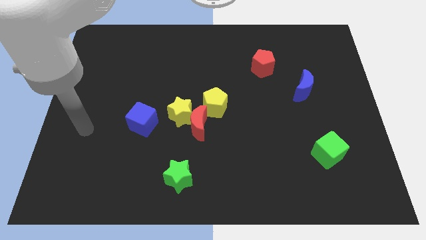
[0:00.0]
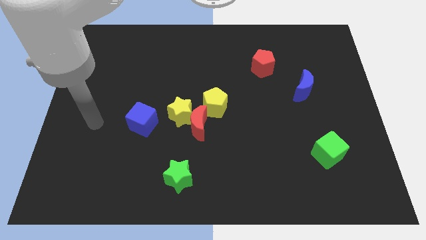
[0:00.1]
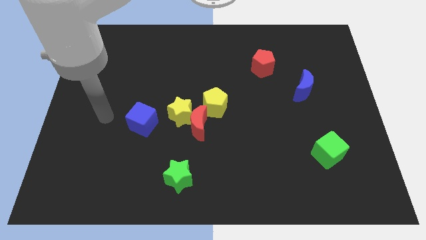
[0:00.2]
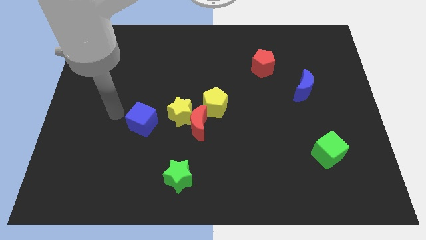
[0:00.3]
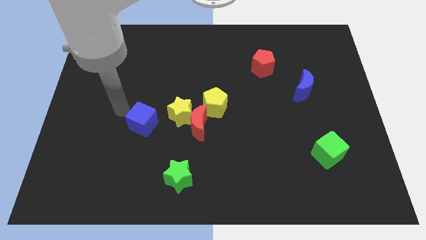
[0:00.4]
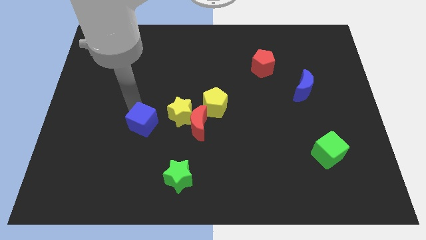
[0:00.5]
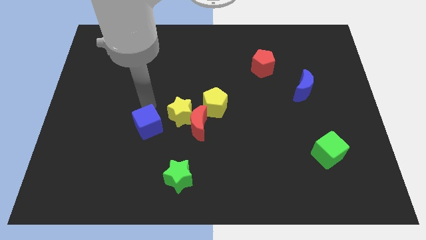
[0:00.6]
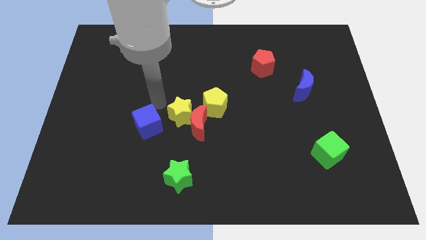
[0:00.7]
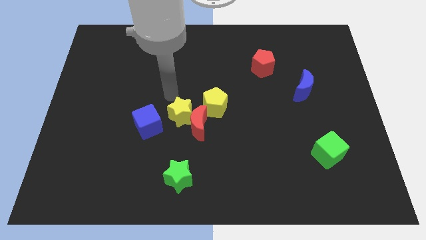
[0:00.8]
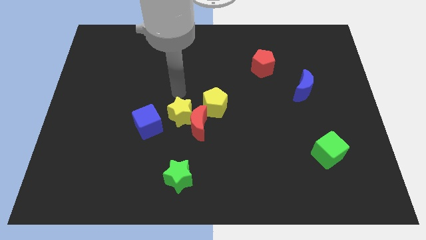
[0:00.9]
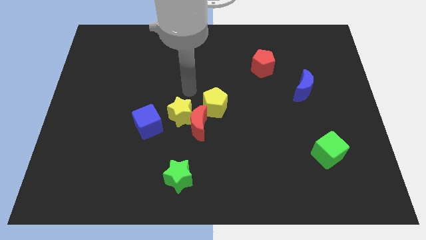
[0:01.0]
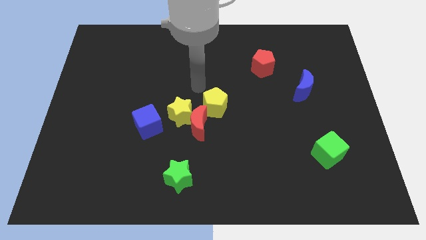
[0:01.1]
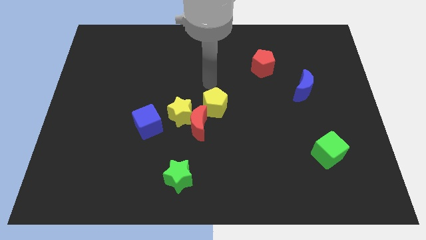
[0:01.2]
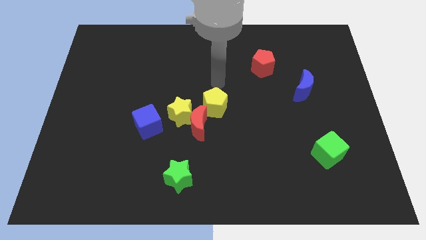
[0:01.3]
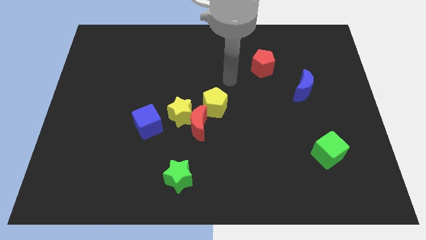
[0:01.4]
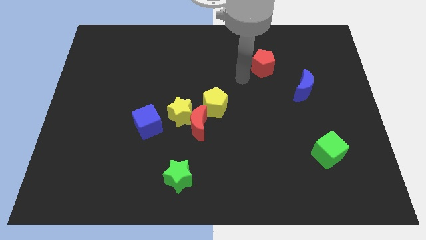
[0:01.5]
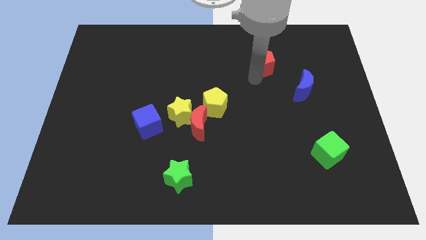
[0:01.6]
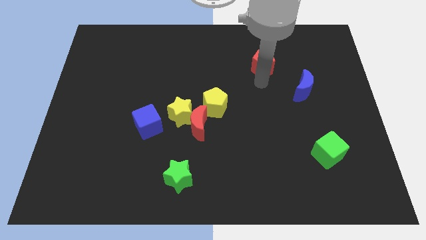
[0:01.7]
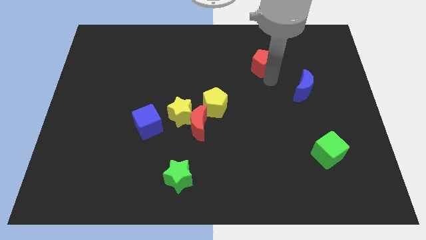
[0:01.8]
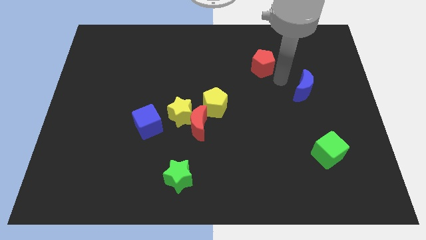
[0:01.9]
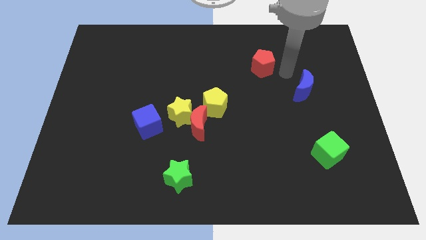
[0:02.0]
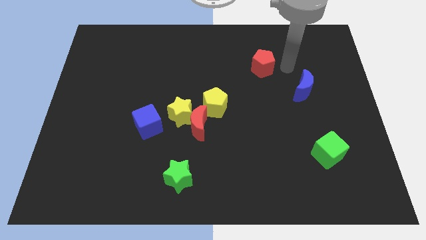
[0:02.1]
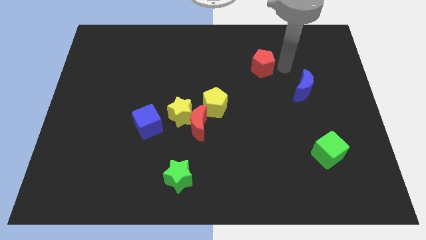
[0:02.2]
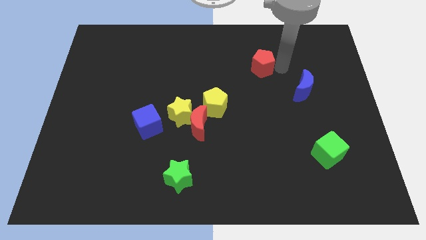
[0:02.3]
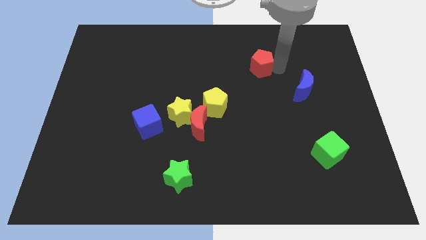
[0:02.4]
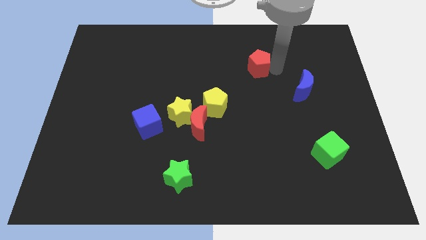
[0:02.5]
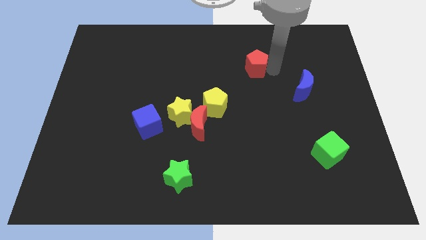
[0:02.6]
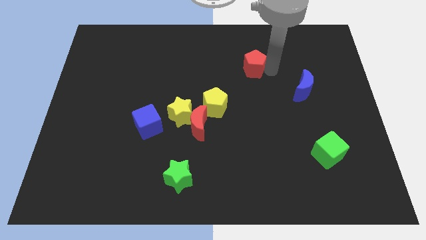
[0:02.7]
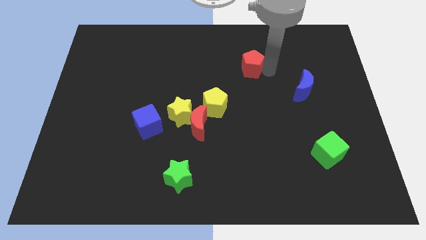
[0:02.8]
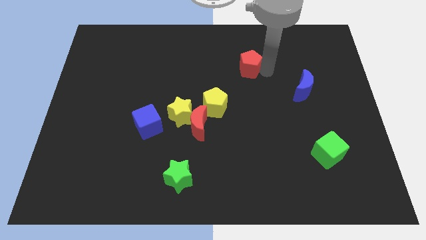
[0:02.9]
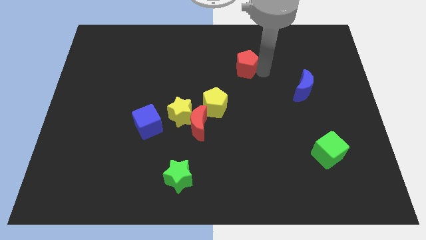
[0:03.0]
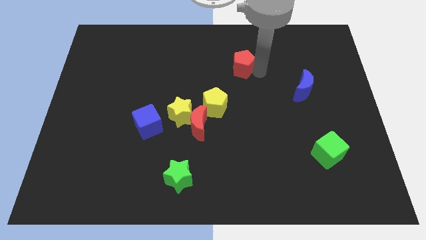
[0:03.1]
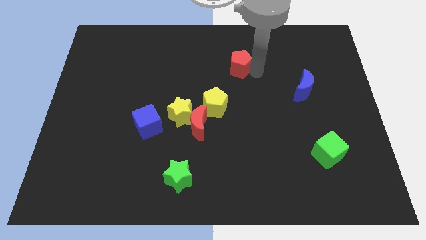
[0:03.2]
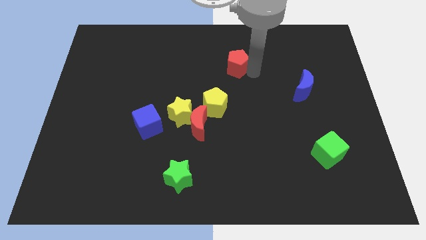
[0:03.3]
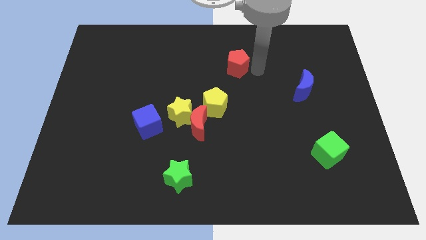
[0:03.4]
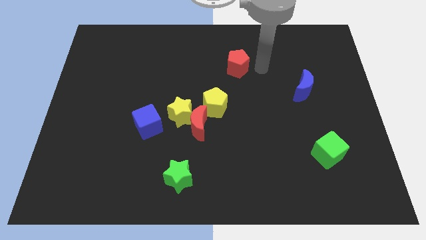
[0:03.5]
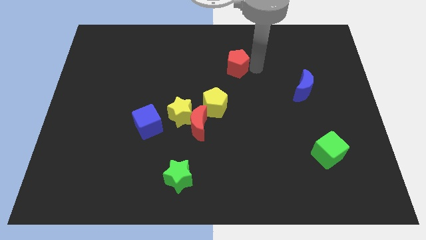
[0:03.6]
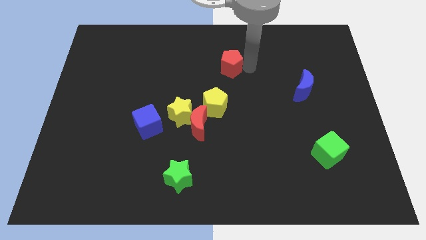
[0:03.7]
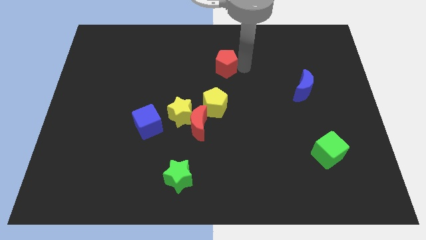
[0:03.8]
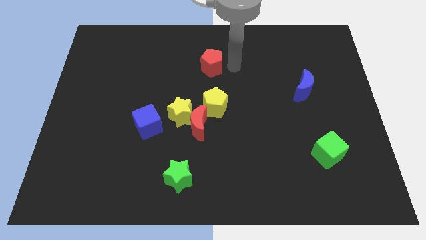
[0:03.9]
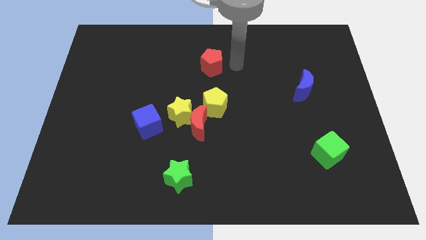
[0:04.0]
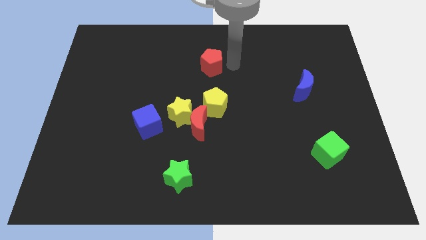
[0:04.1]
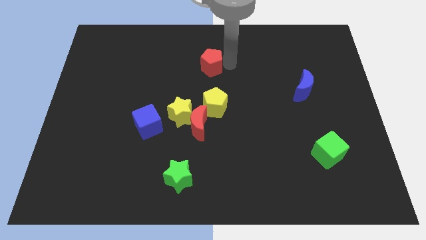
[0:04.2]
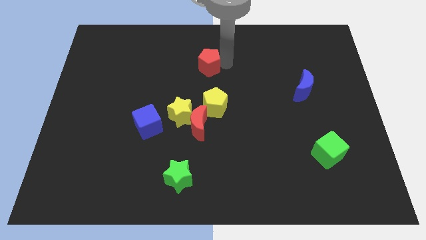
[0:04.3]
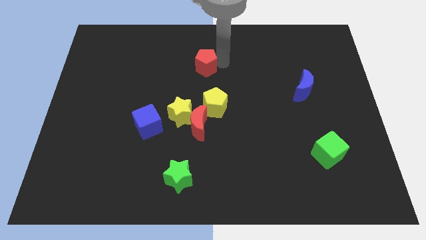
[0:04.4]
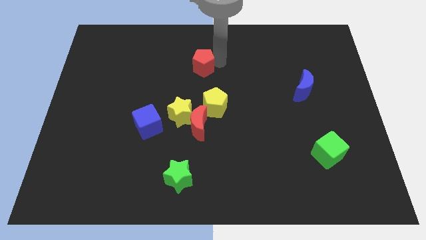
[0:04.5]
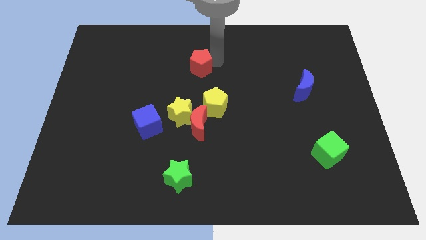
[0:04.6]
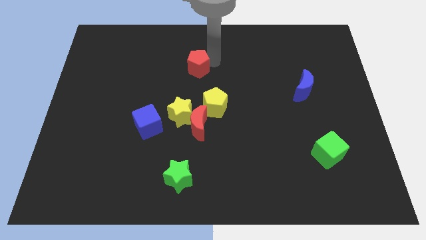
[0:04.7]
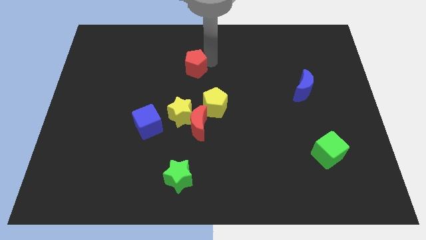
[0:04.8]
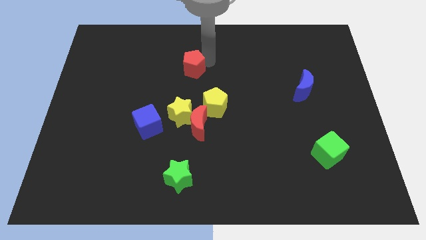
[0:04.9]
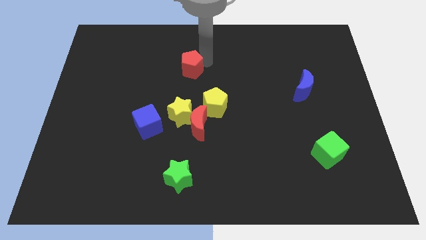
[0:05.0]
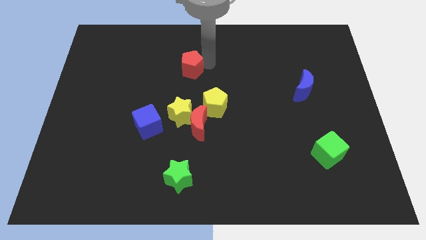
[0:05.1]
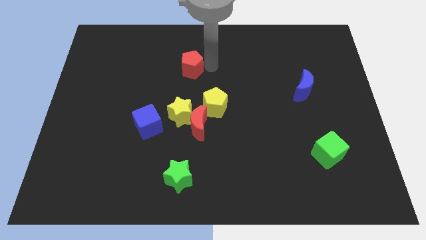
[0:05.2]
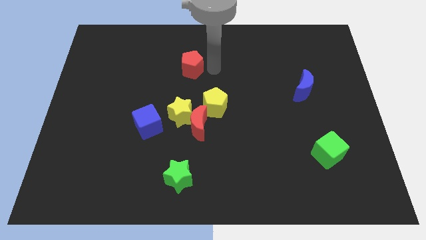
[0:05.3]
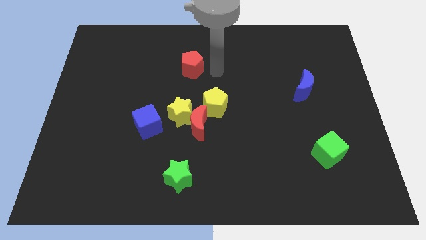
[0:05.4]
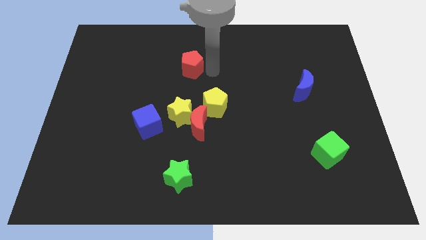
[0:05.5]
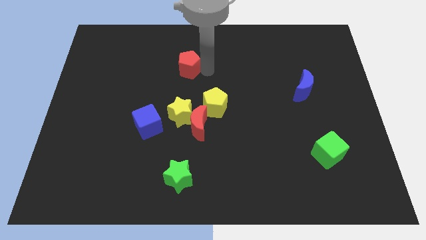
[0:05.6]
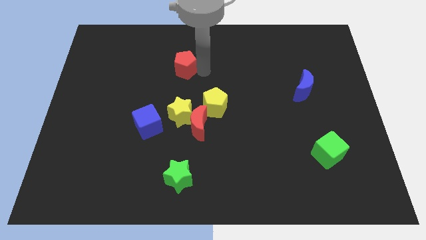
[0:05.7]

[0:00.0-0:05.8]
move the red pentagon to the left

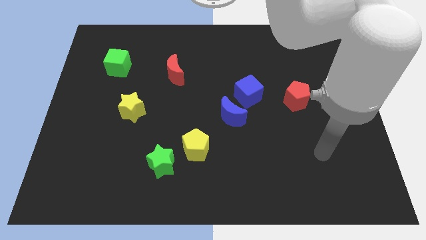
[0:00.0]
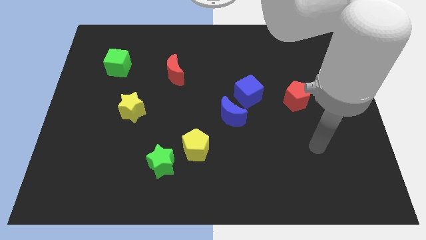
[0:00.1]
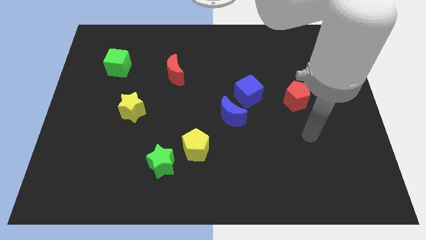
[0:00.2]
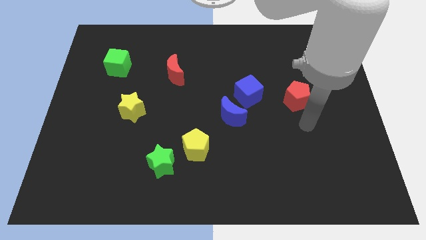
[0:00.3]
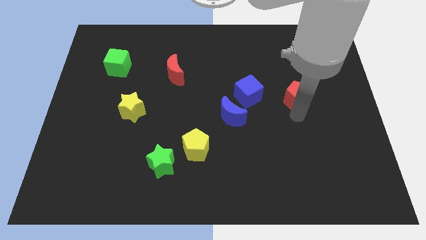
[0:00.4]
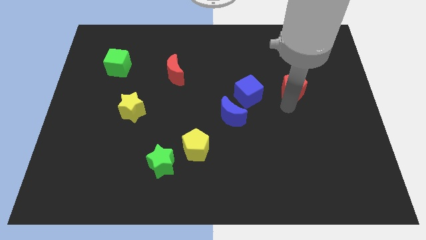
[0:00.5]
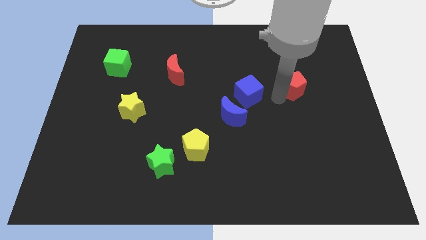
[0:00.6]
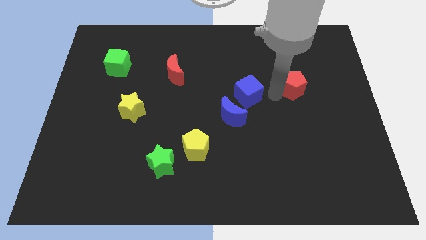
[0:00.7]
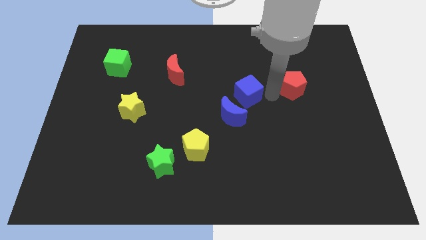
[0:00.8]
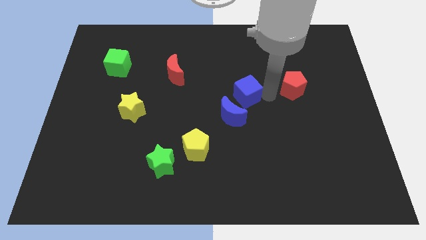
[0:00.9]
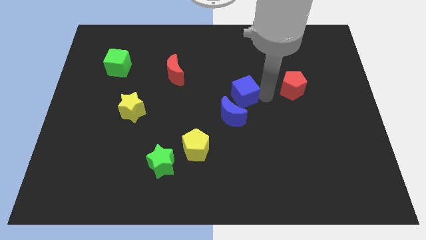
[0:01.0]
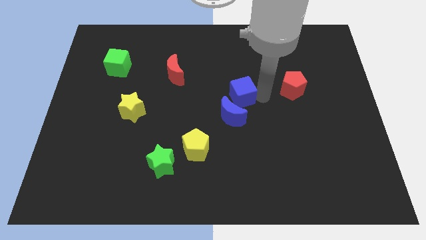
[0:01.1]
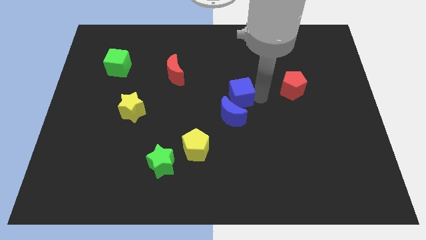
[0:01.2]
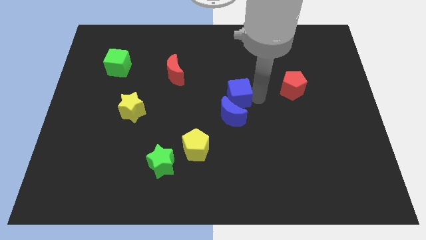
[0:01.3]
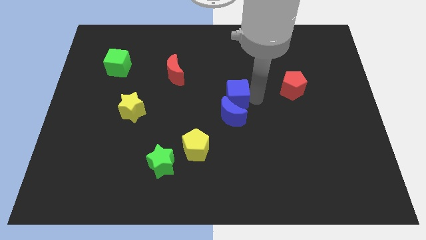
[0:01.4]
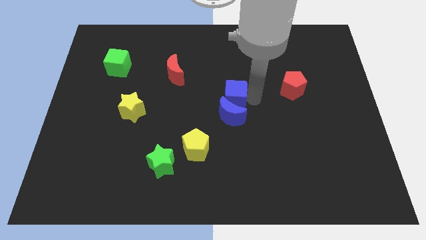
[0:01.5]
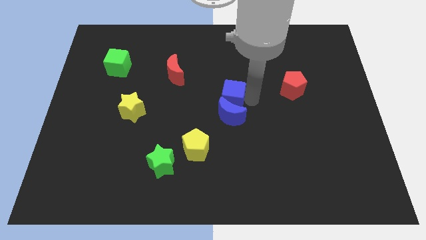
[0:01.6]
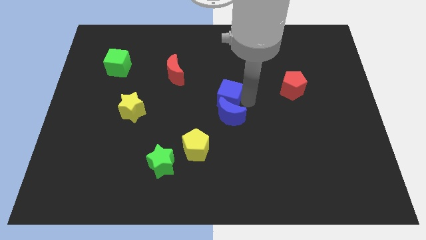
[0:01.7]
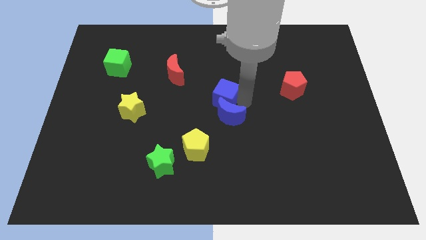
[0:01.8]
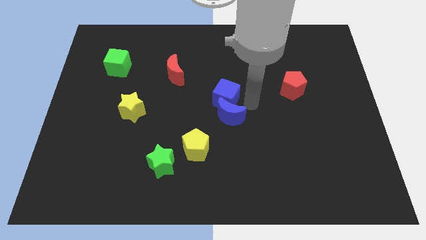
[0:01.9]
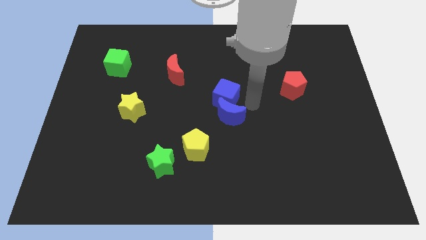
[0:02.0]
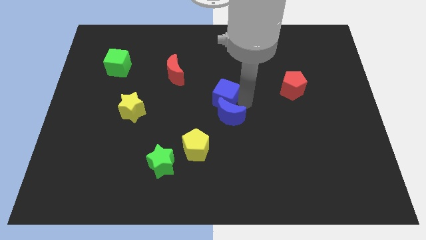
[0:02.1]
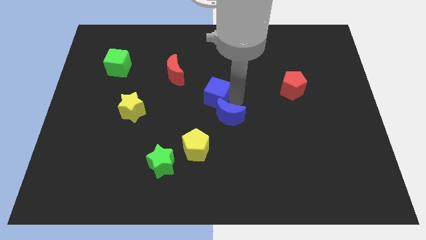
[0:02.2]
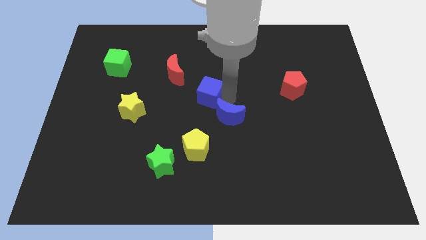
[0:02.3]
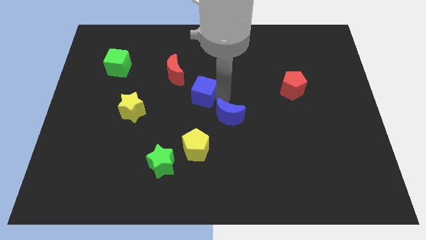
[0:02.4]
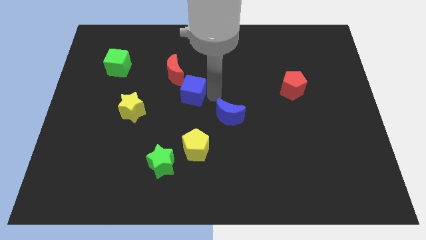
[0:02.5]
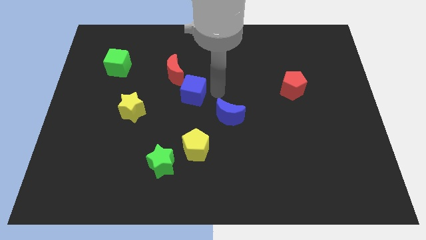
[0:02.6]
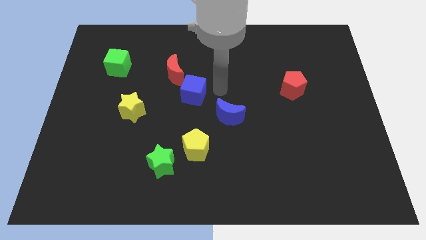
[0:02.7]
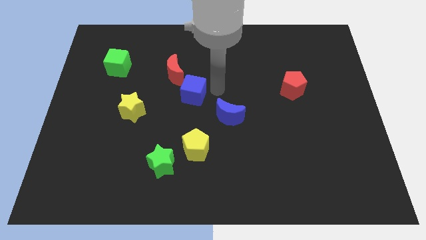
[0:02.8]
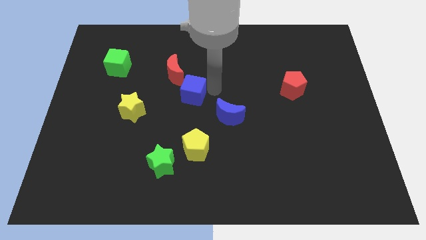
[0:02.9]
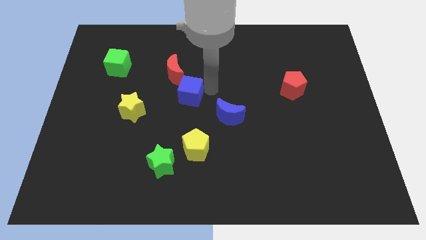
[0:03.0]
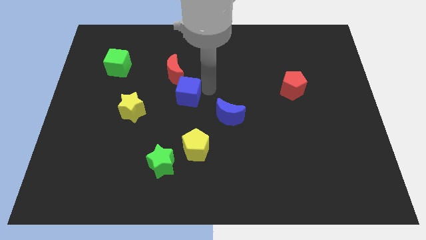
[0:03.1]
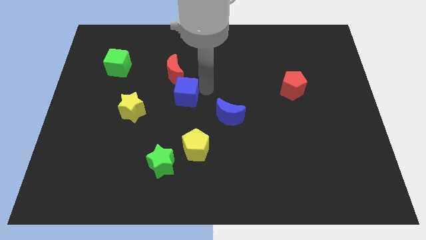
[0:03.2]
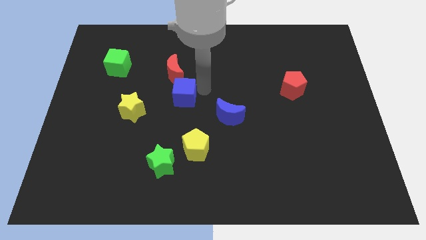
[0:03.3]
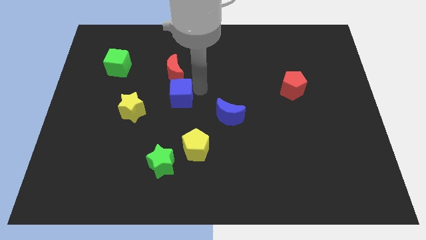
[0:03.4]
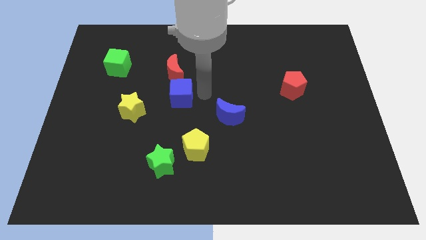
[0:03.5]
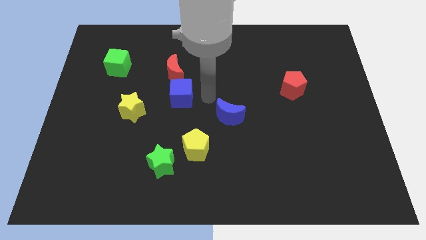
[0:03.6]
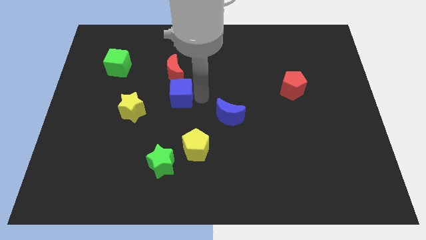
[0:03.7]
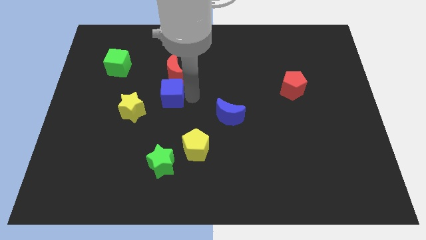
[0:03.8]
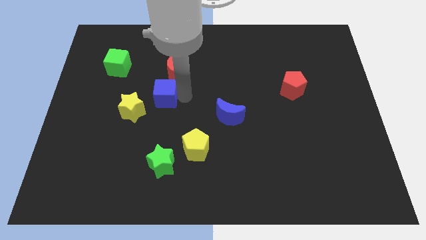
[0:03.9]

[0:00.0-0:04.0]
slide the blue cube left
